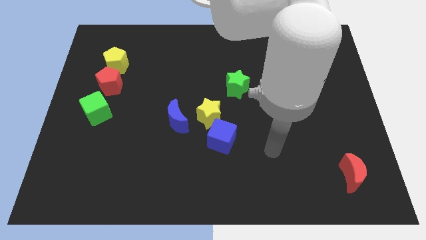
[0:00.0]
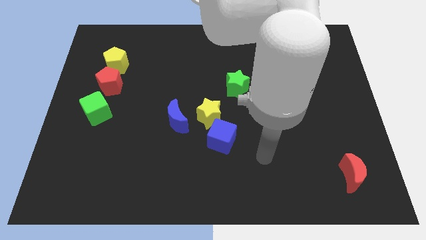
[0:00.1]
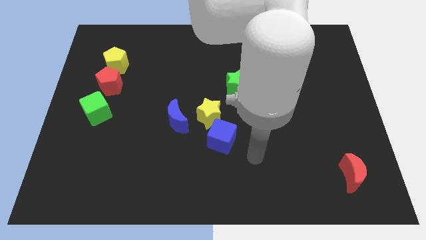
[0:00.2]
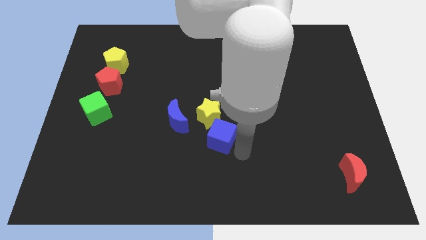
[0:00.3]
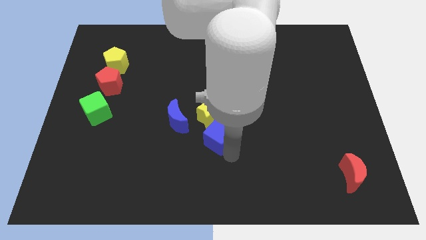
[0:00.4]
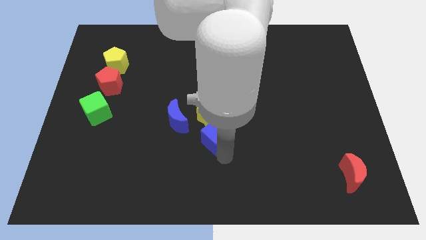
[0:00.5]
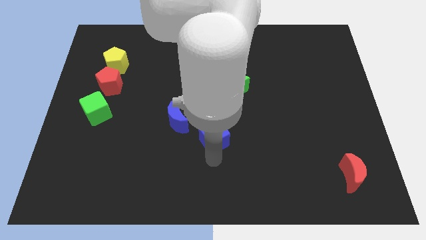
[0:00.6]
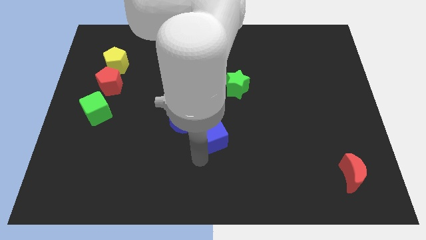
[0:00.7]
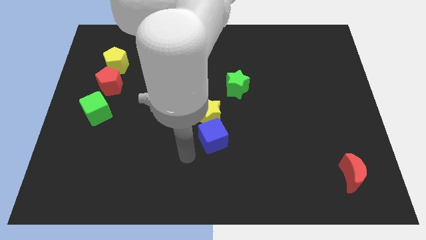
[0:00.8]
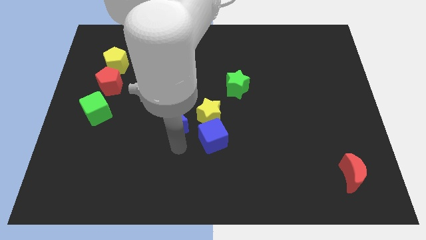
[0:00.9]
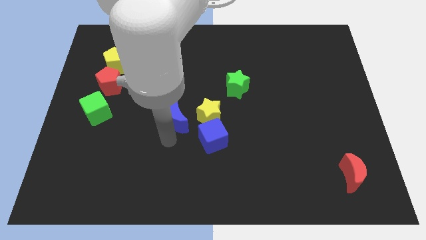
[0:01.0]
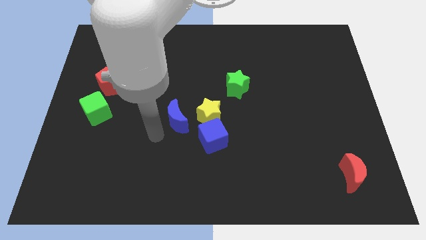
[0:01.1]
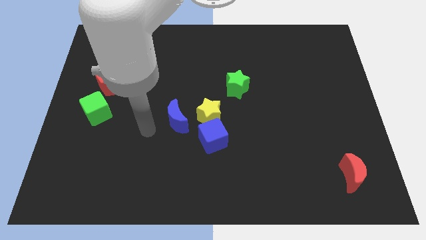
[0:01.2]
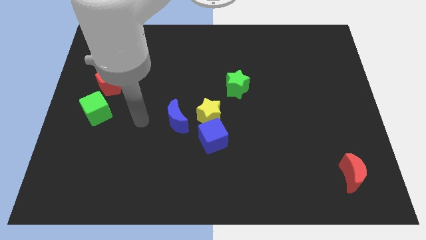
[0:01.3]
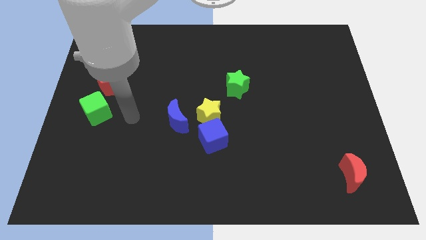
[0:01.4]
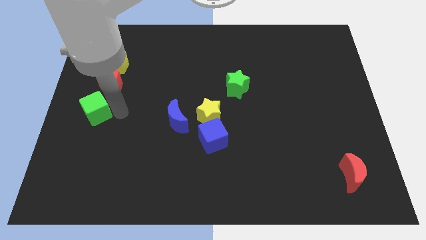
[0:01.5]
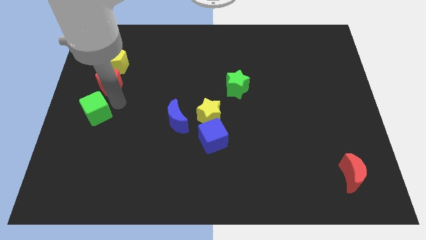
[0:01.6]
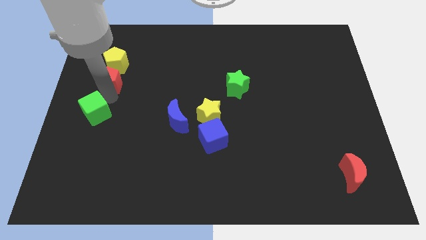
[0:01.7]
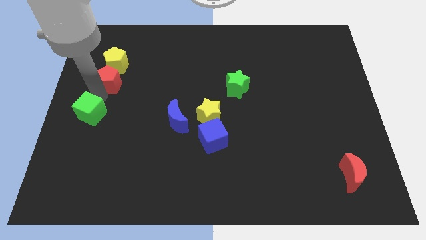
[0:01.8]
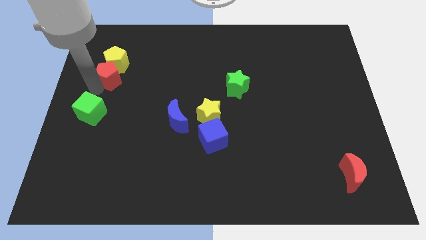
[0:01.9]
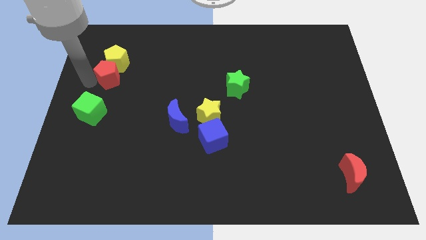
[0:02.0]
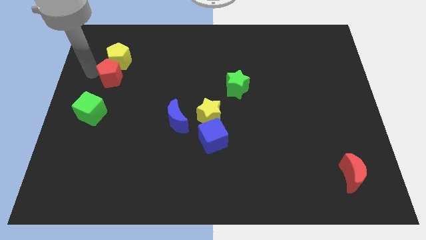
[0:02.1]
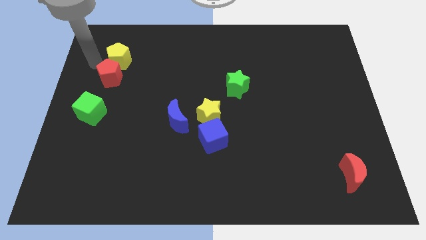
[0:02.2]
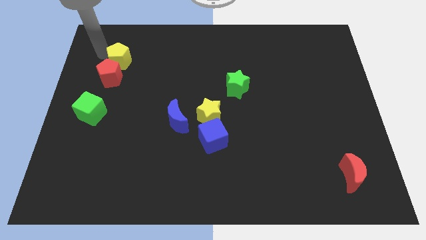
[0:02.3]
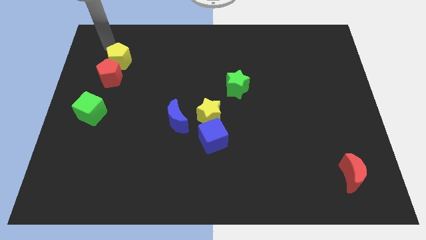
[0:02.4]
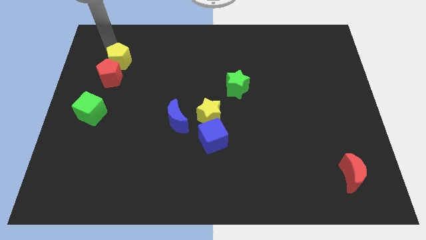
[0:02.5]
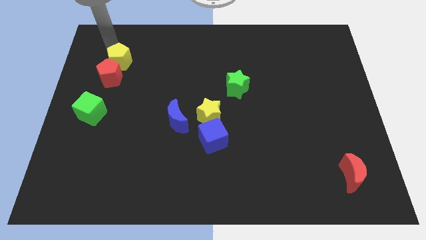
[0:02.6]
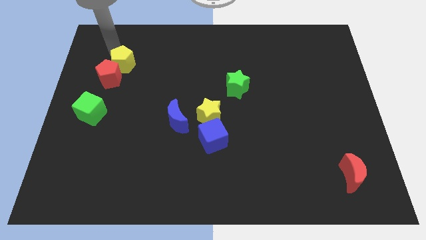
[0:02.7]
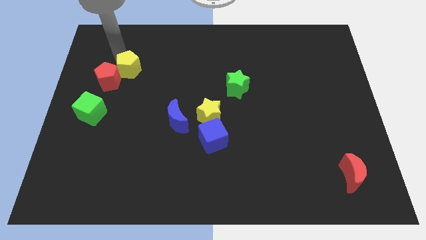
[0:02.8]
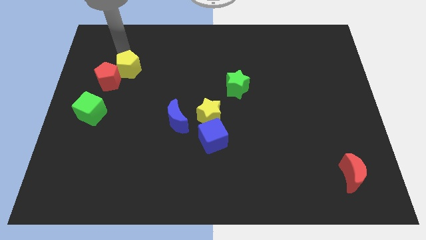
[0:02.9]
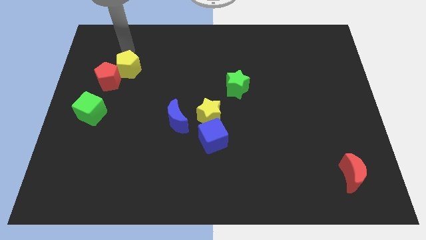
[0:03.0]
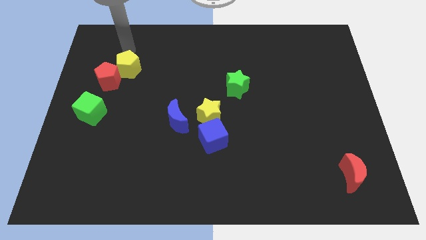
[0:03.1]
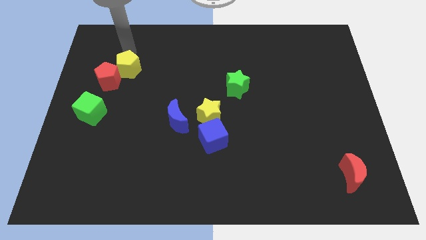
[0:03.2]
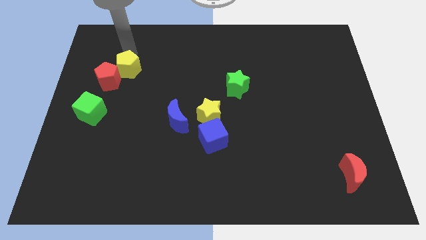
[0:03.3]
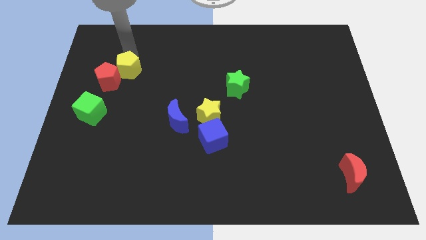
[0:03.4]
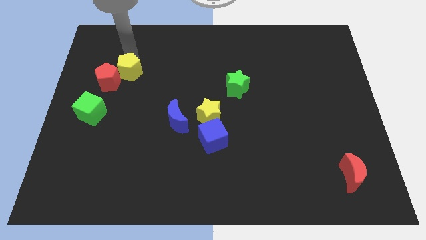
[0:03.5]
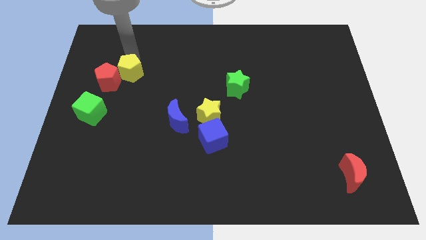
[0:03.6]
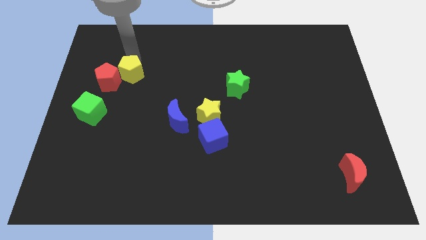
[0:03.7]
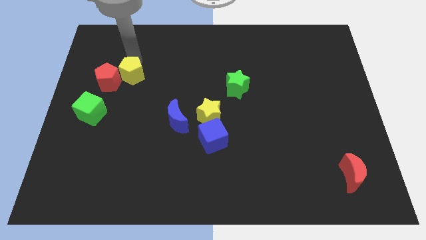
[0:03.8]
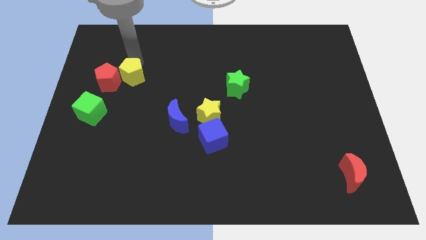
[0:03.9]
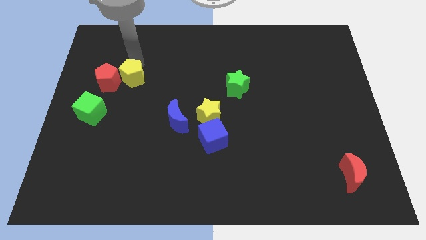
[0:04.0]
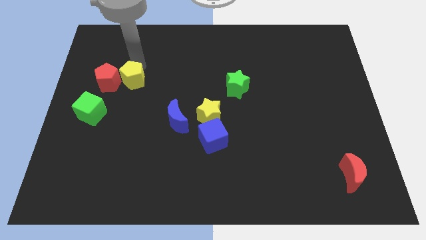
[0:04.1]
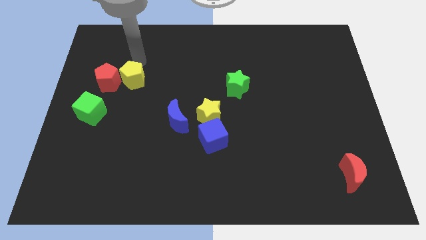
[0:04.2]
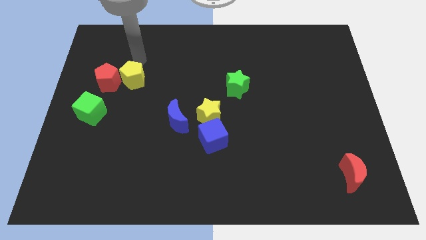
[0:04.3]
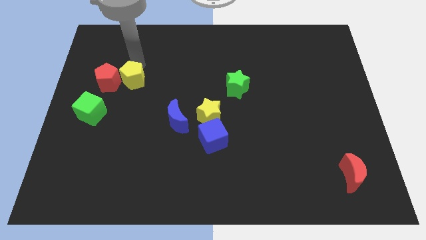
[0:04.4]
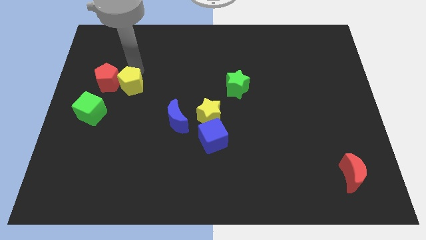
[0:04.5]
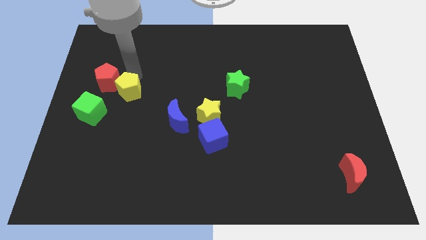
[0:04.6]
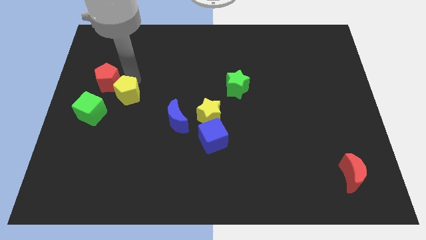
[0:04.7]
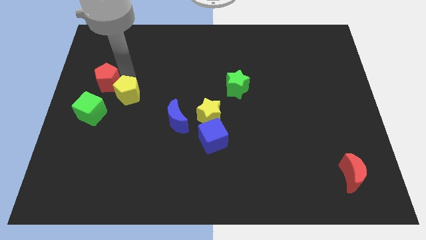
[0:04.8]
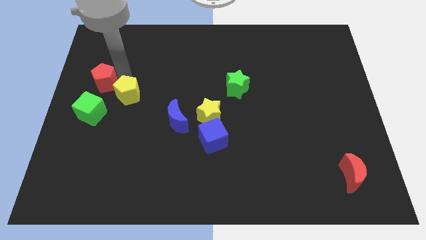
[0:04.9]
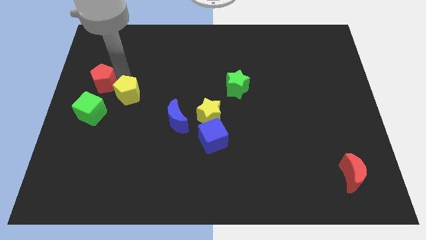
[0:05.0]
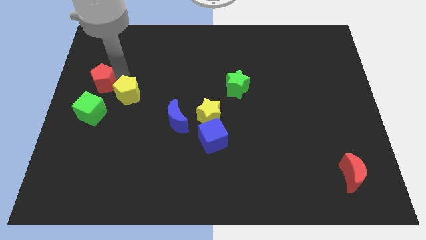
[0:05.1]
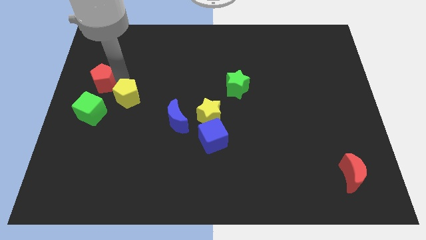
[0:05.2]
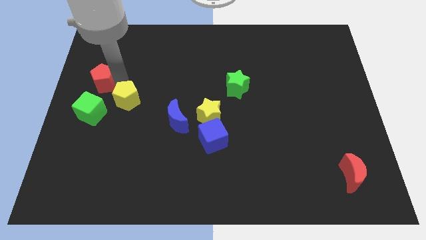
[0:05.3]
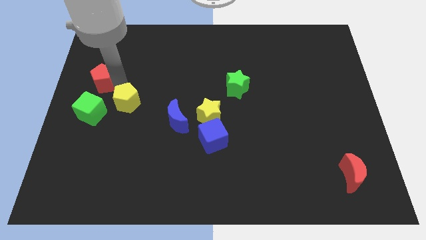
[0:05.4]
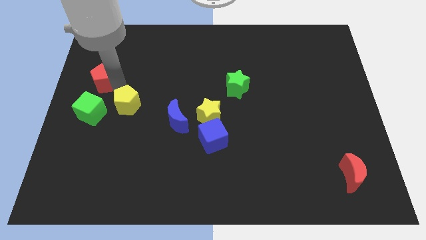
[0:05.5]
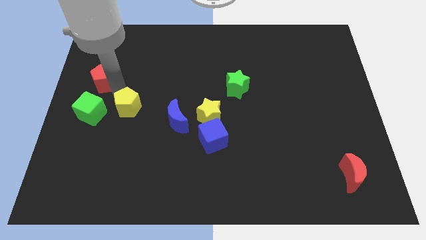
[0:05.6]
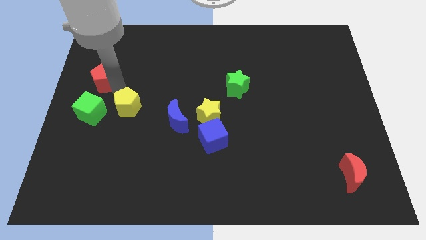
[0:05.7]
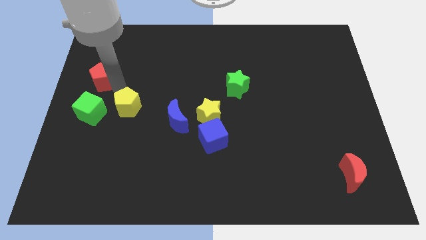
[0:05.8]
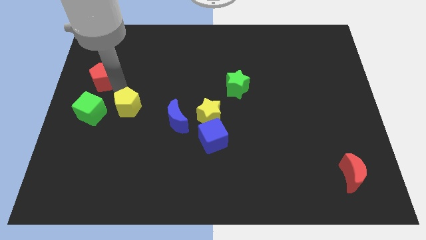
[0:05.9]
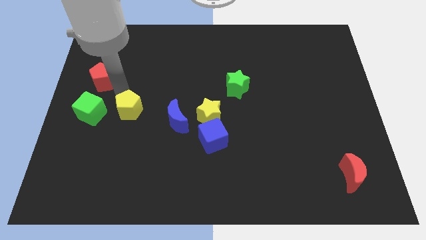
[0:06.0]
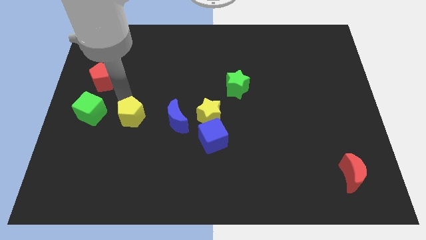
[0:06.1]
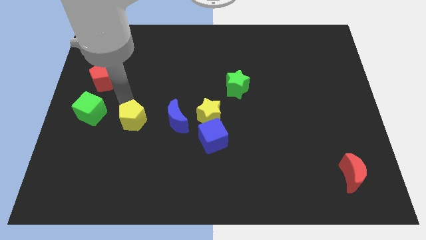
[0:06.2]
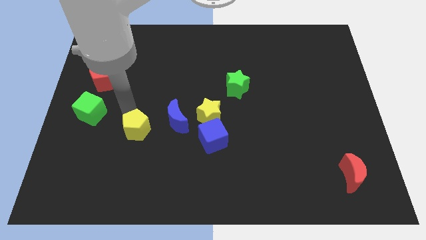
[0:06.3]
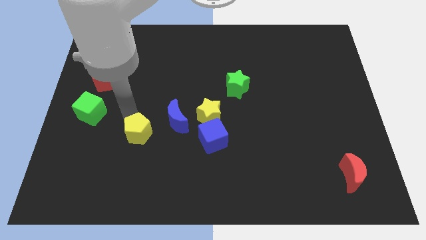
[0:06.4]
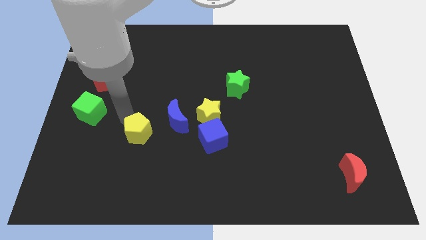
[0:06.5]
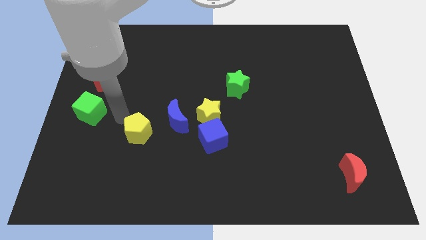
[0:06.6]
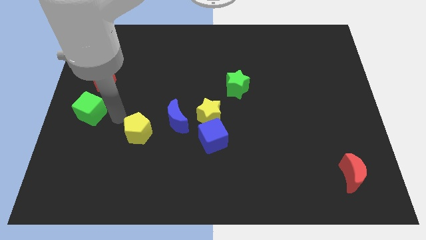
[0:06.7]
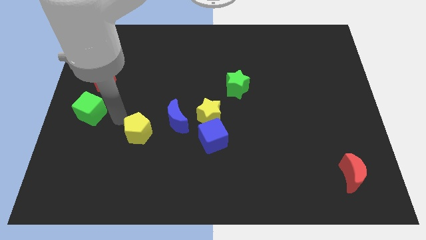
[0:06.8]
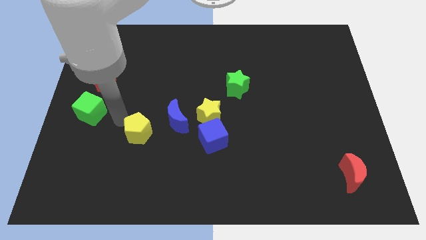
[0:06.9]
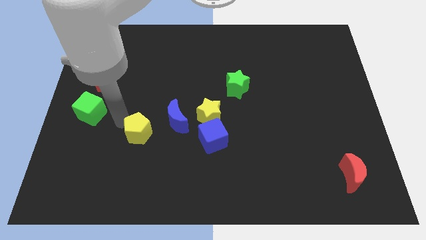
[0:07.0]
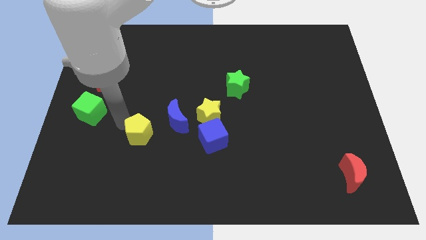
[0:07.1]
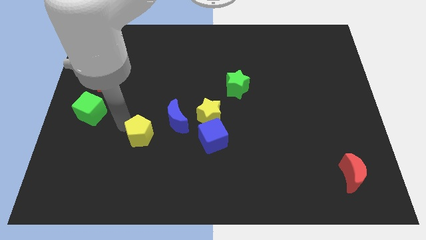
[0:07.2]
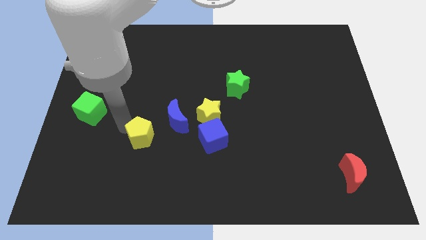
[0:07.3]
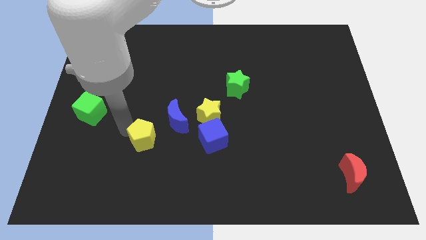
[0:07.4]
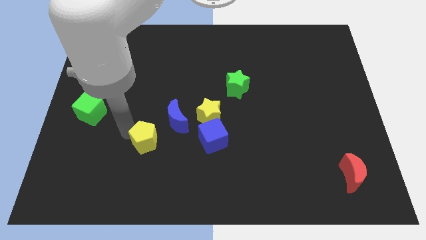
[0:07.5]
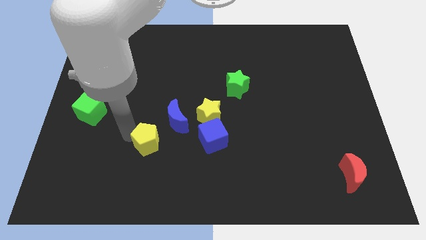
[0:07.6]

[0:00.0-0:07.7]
move the yellow pentagon down and right diagonally

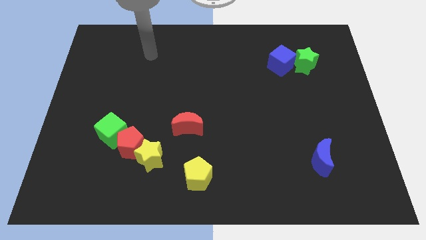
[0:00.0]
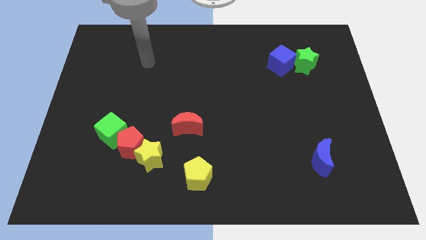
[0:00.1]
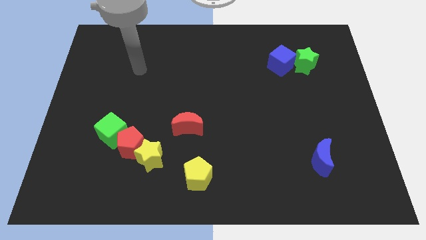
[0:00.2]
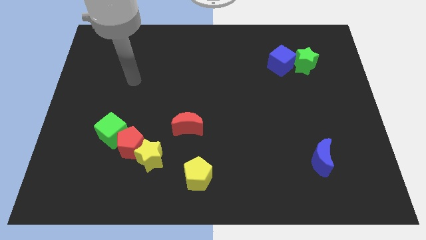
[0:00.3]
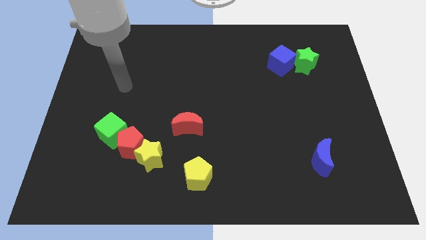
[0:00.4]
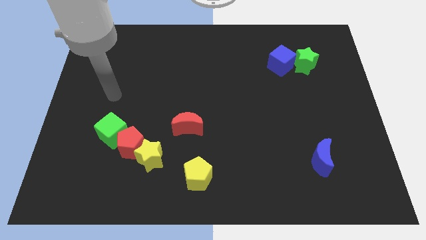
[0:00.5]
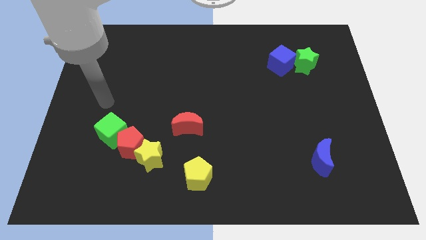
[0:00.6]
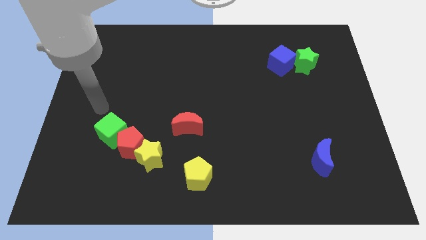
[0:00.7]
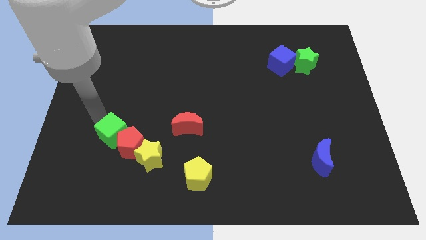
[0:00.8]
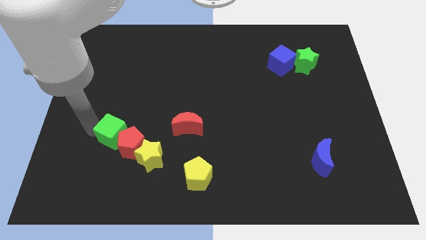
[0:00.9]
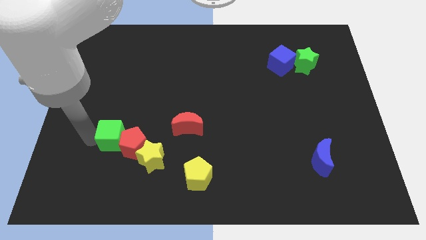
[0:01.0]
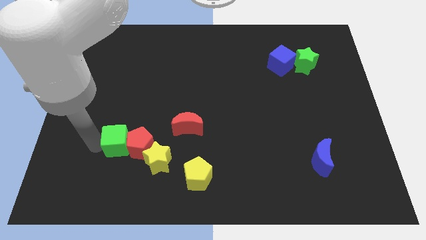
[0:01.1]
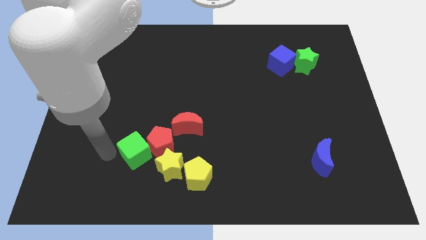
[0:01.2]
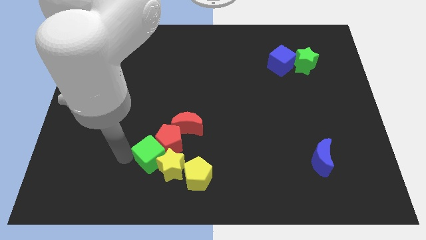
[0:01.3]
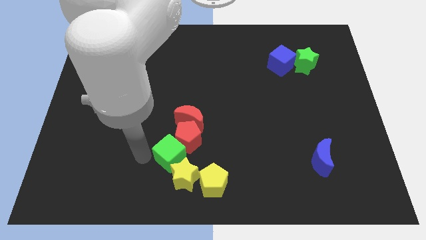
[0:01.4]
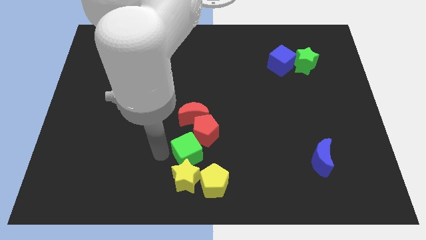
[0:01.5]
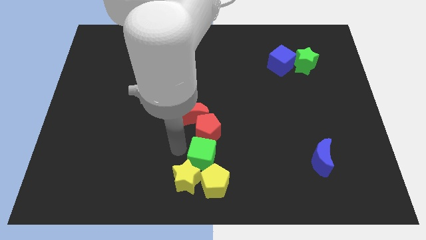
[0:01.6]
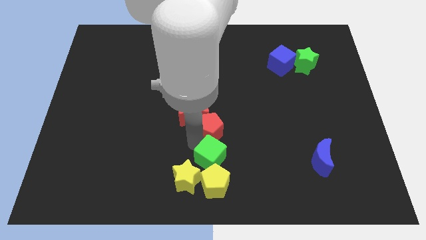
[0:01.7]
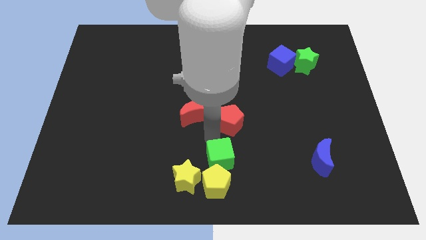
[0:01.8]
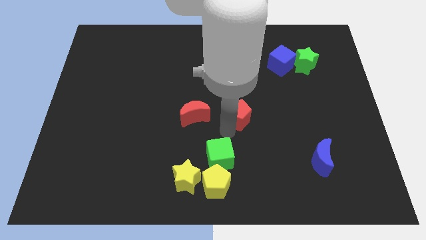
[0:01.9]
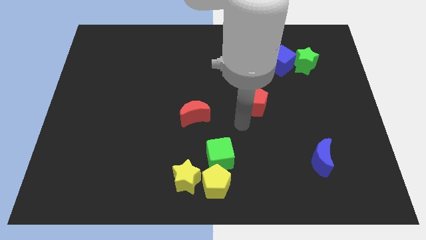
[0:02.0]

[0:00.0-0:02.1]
push the red pentagon up and right diagonally
